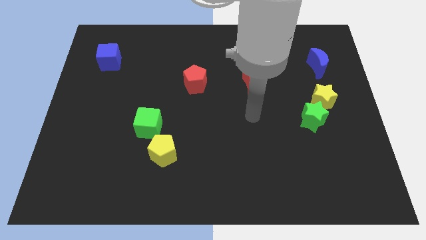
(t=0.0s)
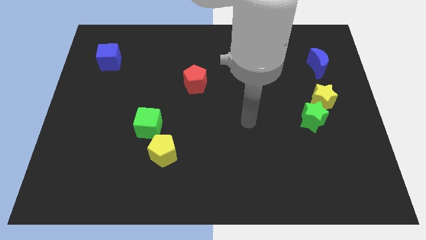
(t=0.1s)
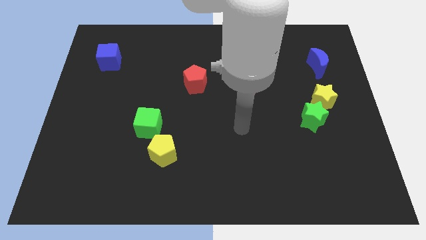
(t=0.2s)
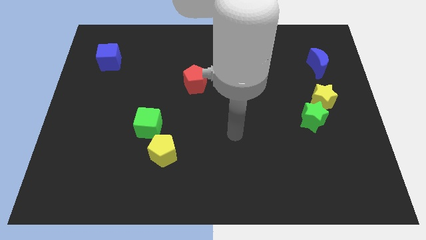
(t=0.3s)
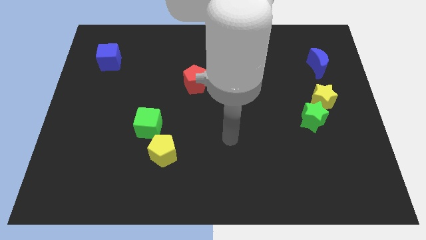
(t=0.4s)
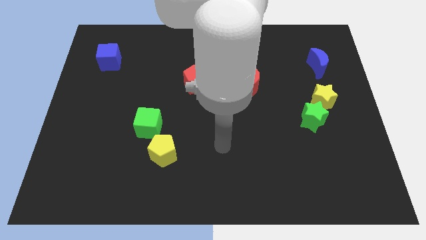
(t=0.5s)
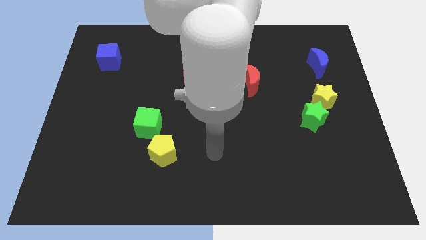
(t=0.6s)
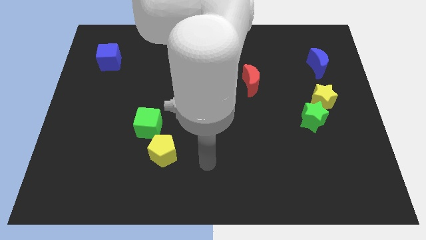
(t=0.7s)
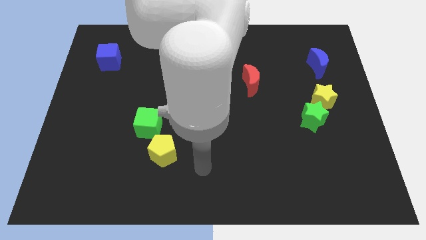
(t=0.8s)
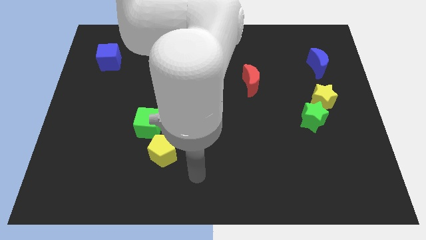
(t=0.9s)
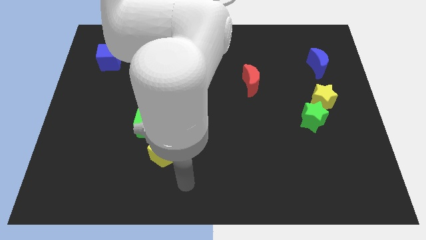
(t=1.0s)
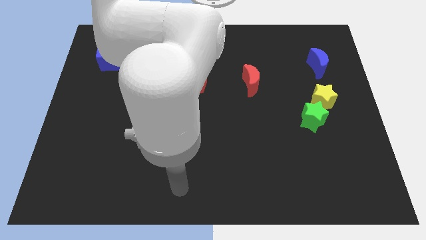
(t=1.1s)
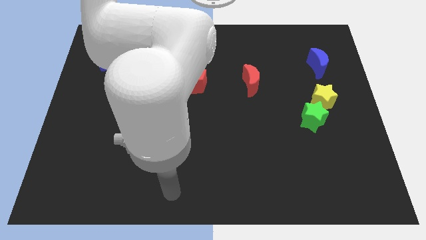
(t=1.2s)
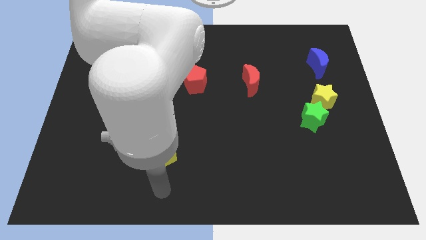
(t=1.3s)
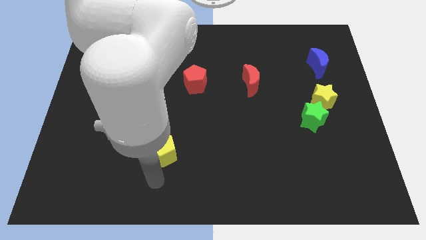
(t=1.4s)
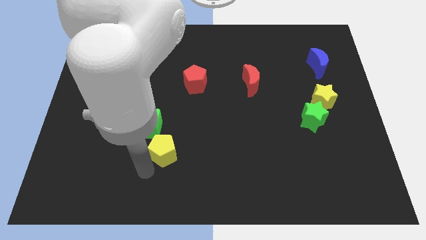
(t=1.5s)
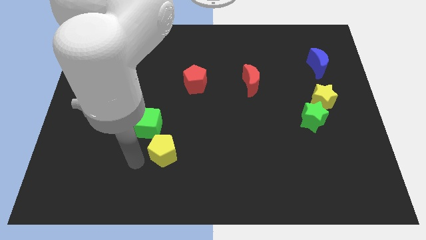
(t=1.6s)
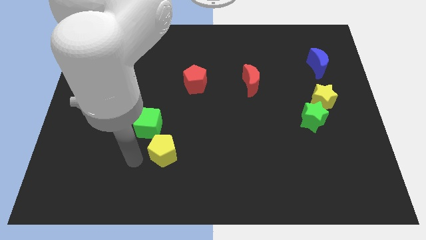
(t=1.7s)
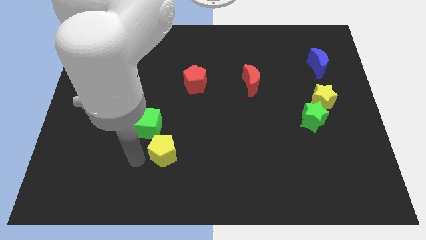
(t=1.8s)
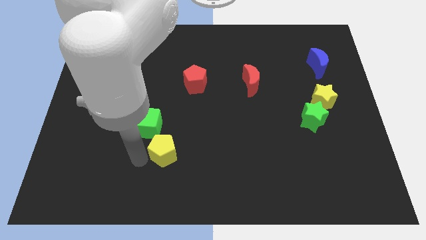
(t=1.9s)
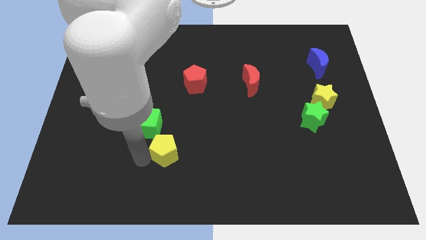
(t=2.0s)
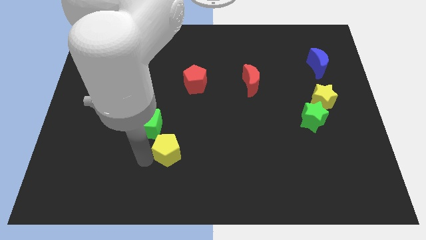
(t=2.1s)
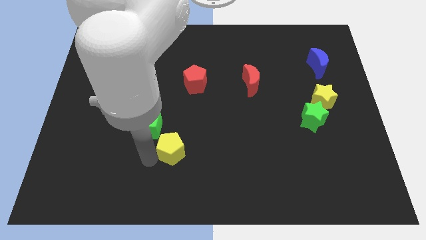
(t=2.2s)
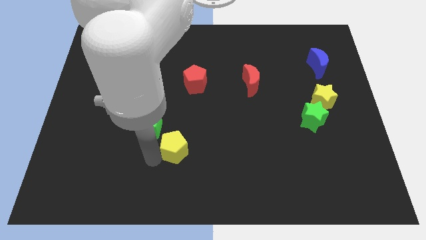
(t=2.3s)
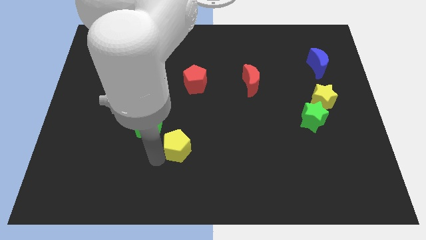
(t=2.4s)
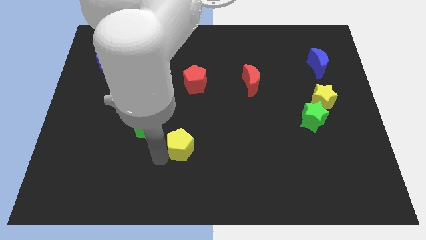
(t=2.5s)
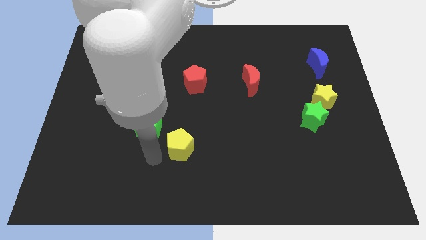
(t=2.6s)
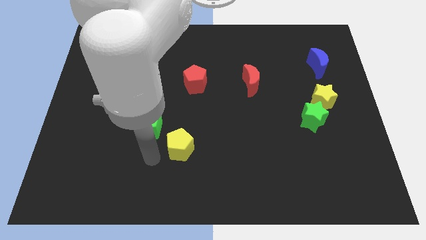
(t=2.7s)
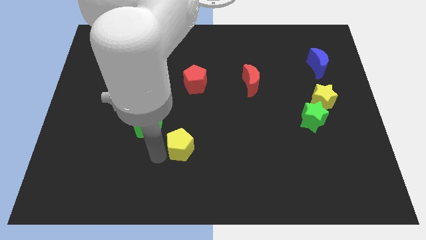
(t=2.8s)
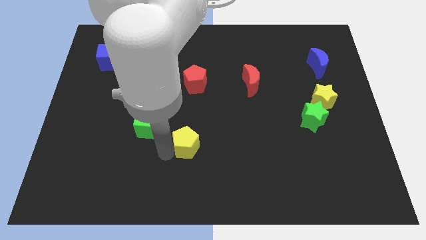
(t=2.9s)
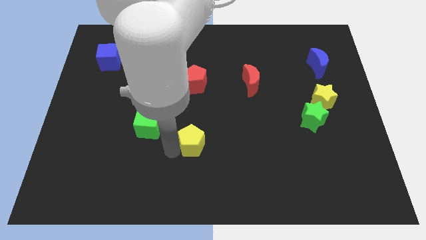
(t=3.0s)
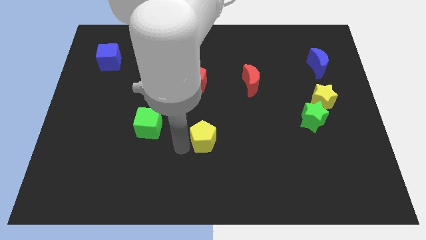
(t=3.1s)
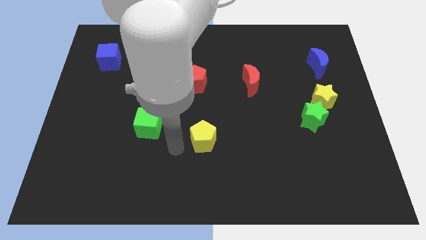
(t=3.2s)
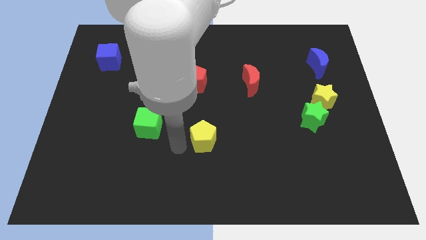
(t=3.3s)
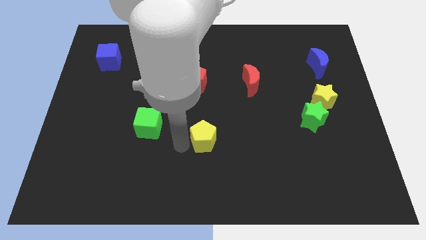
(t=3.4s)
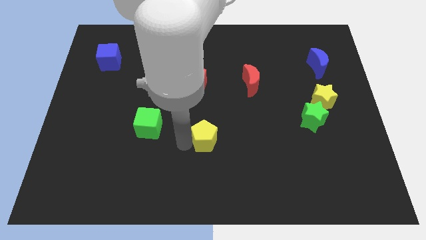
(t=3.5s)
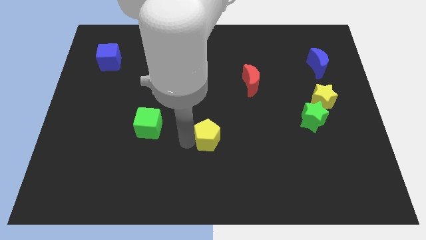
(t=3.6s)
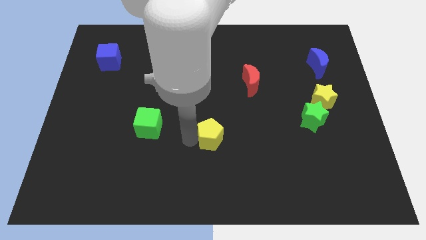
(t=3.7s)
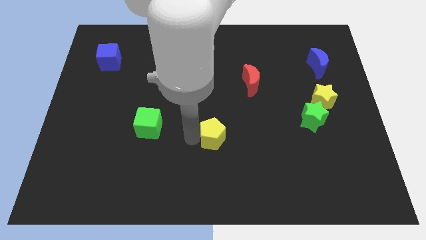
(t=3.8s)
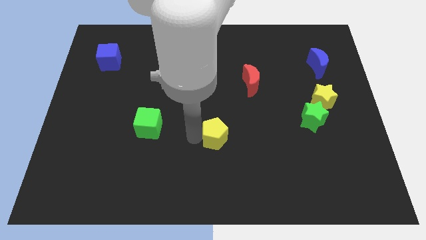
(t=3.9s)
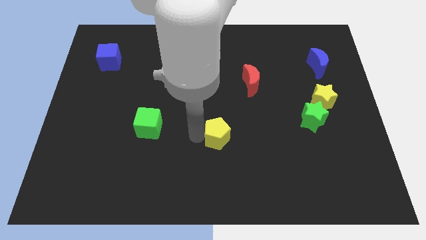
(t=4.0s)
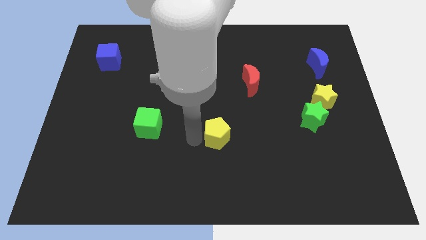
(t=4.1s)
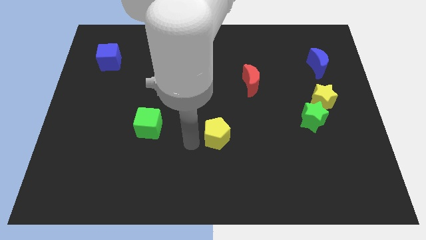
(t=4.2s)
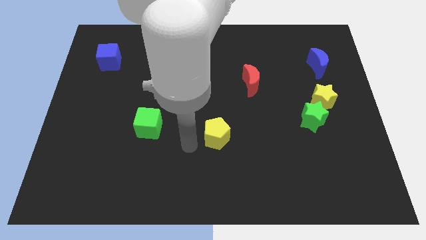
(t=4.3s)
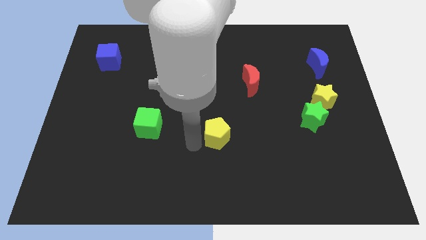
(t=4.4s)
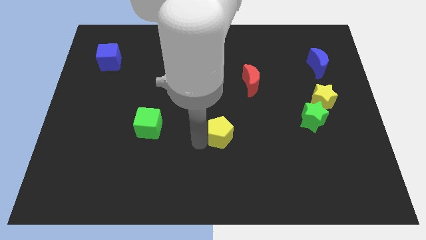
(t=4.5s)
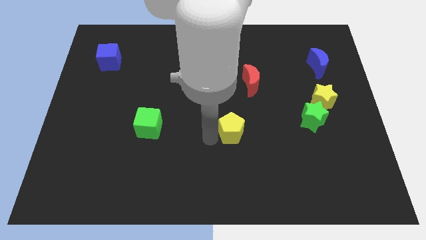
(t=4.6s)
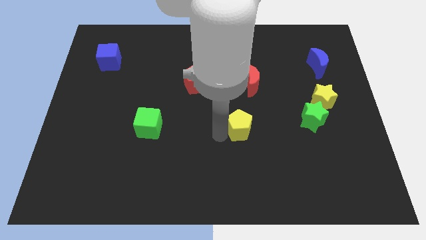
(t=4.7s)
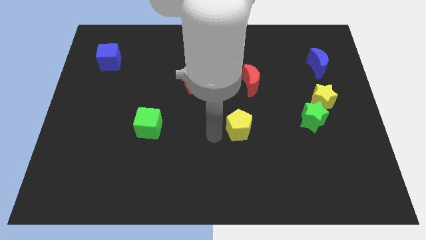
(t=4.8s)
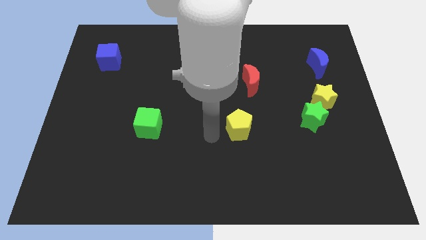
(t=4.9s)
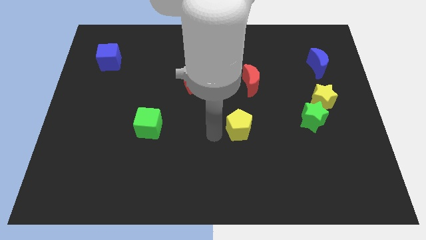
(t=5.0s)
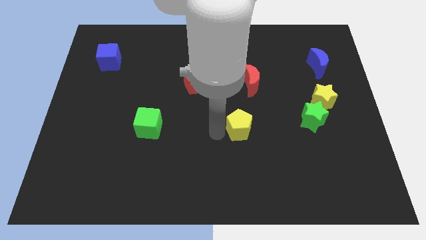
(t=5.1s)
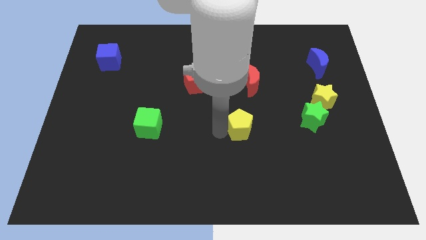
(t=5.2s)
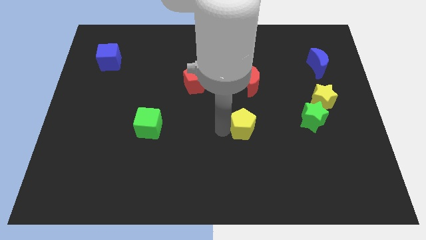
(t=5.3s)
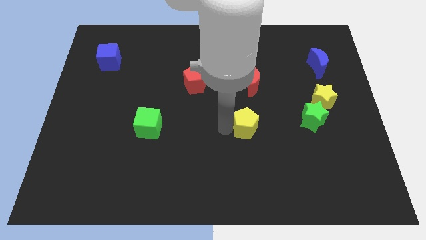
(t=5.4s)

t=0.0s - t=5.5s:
move the yellow pentagon left of the green star

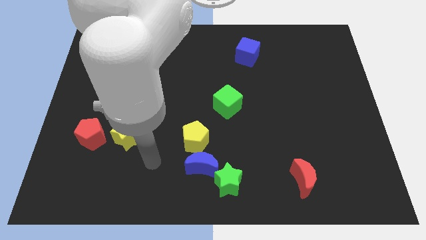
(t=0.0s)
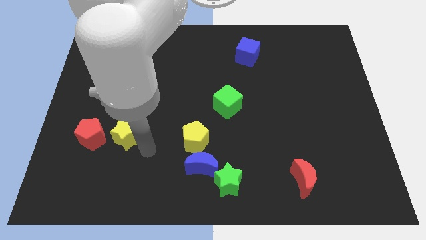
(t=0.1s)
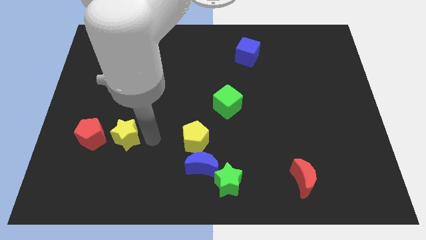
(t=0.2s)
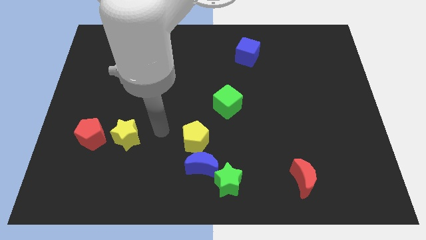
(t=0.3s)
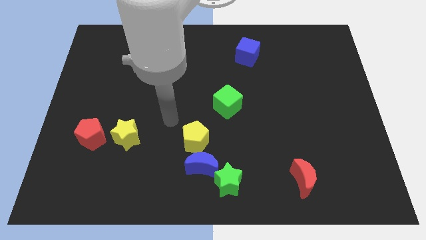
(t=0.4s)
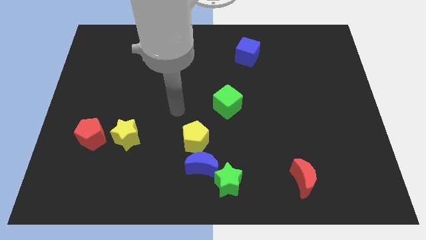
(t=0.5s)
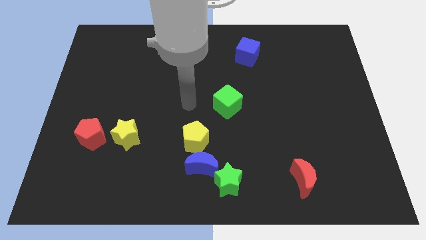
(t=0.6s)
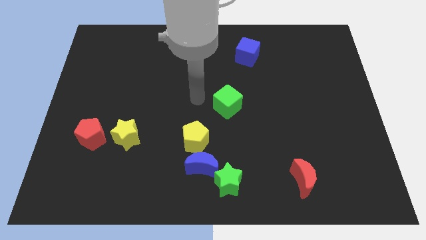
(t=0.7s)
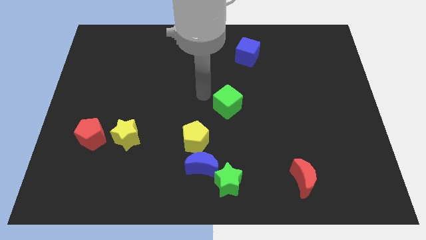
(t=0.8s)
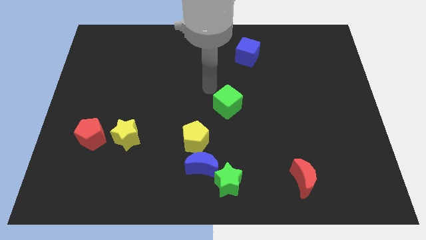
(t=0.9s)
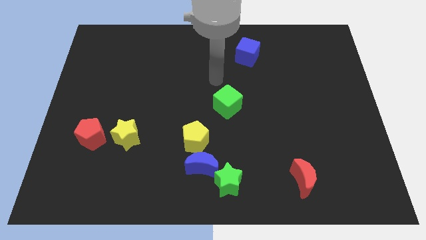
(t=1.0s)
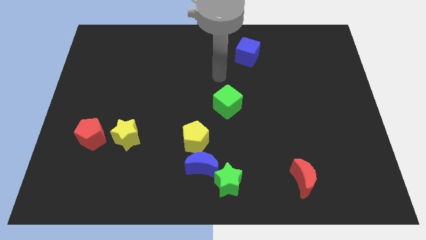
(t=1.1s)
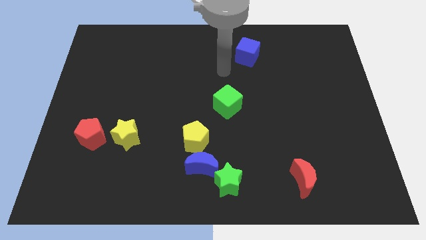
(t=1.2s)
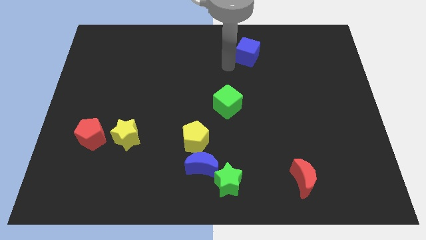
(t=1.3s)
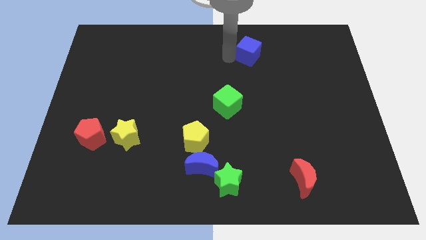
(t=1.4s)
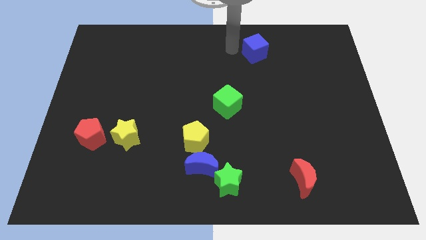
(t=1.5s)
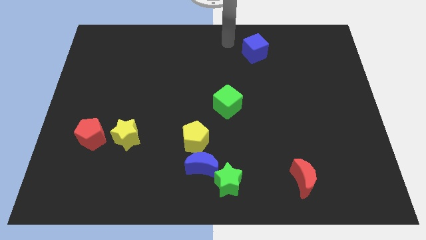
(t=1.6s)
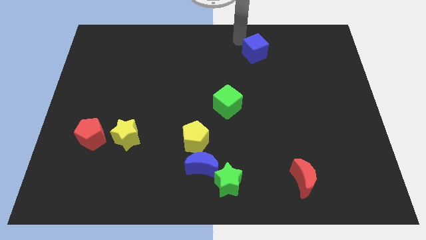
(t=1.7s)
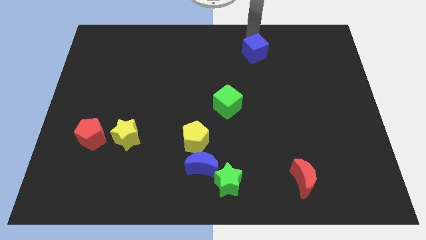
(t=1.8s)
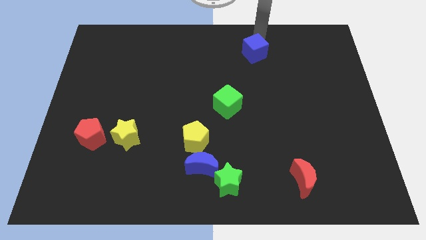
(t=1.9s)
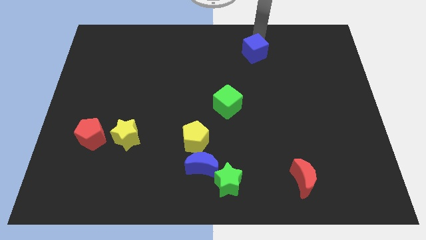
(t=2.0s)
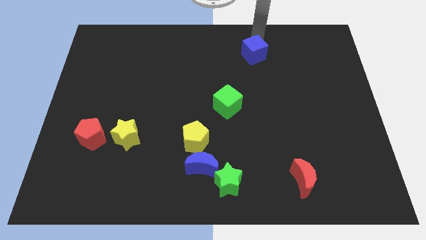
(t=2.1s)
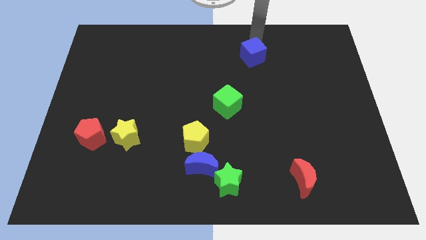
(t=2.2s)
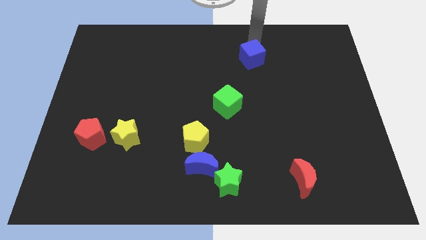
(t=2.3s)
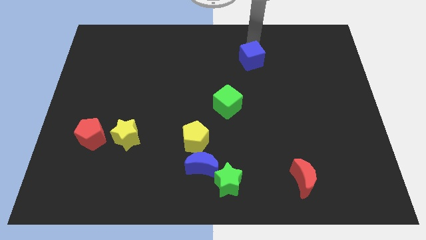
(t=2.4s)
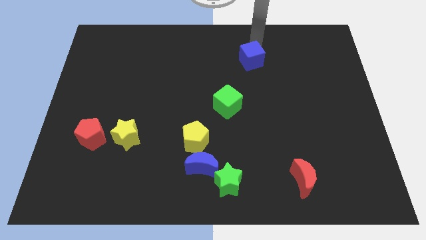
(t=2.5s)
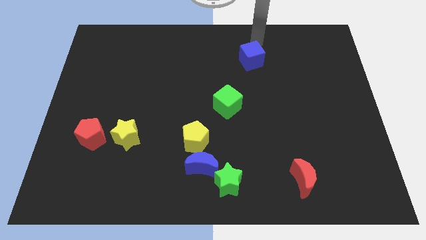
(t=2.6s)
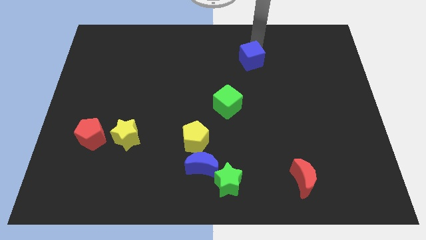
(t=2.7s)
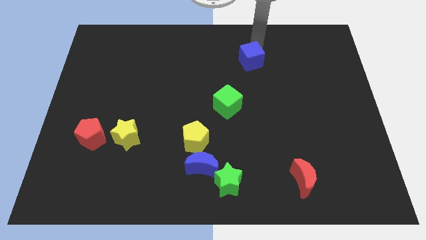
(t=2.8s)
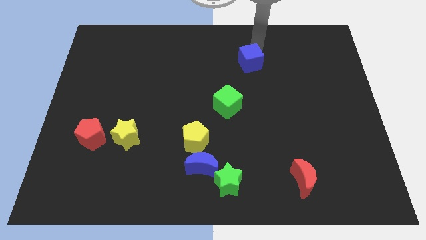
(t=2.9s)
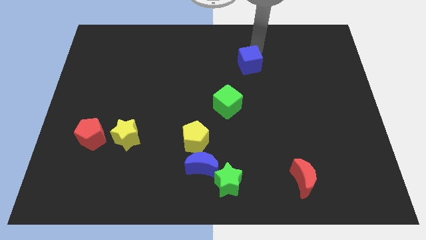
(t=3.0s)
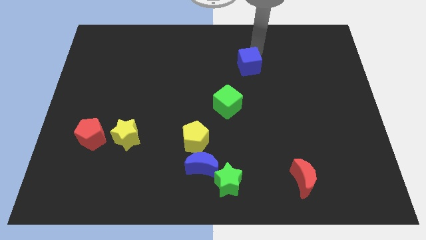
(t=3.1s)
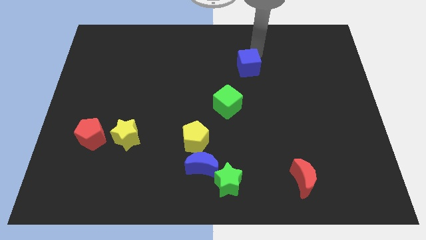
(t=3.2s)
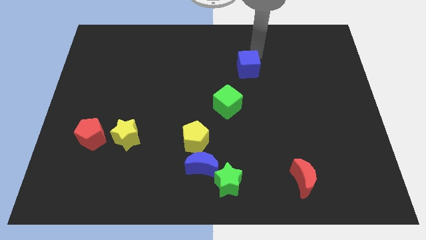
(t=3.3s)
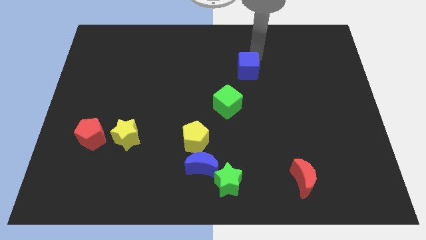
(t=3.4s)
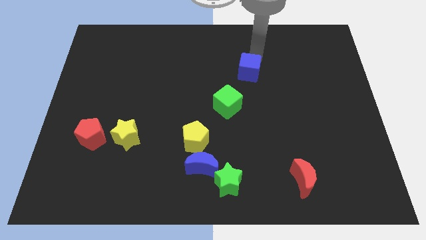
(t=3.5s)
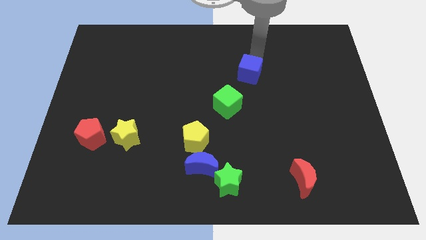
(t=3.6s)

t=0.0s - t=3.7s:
move the blue cube to the top right side of the green cube
